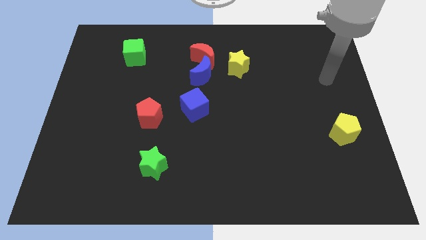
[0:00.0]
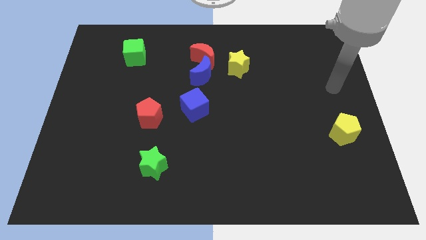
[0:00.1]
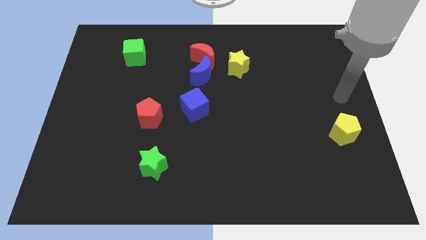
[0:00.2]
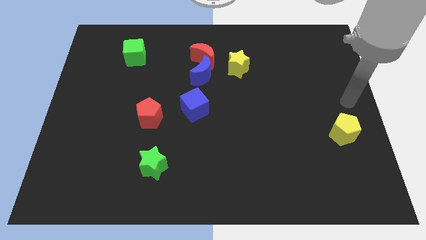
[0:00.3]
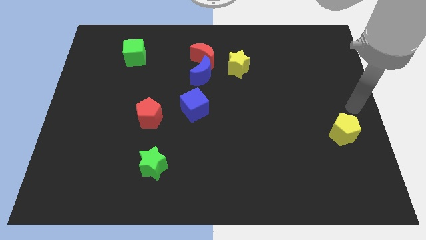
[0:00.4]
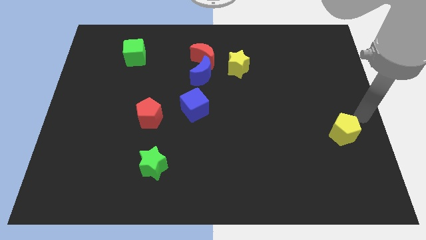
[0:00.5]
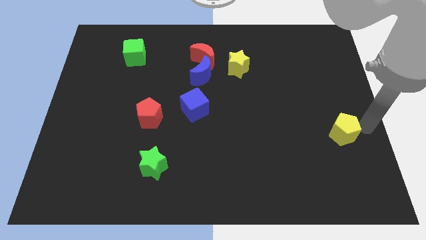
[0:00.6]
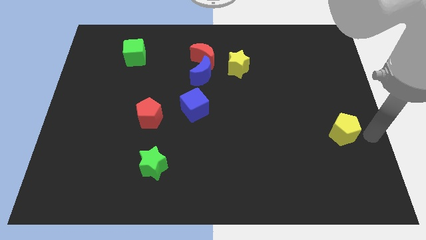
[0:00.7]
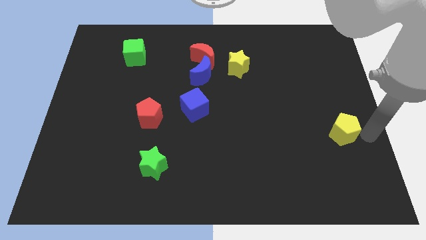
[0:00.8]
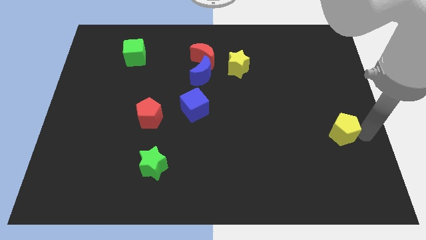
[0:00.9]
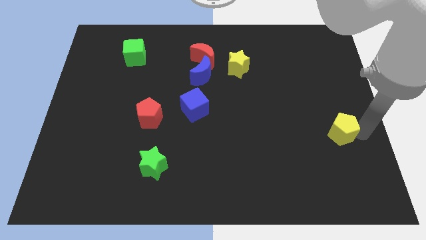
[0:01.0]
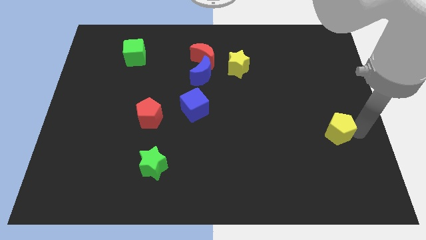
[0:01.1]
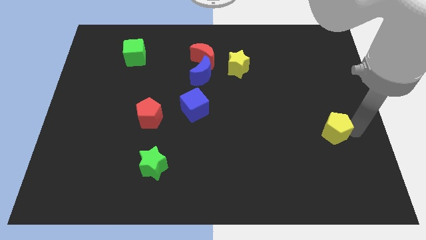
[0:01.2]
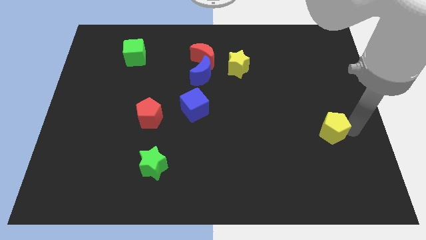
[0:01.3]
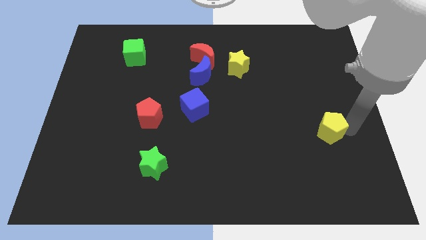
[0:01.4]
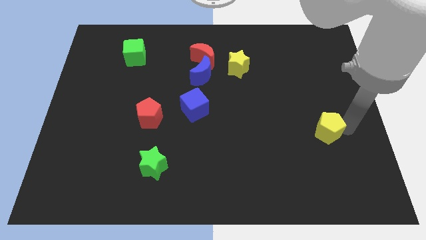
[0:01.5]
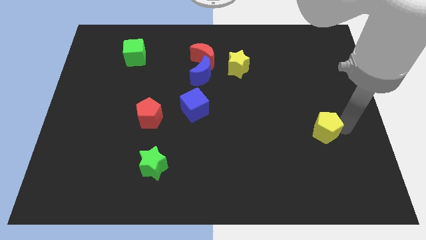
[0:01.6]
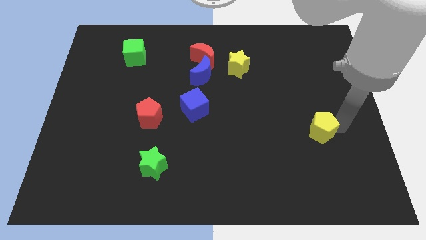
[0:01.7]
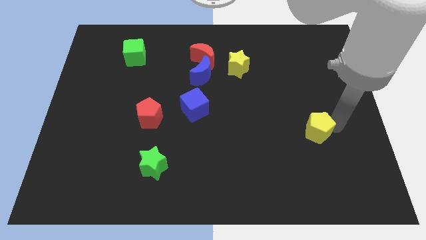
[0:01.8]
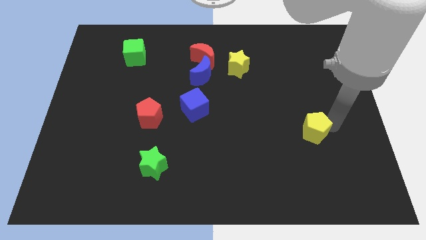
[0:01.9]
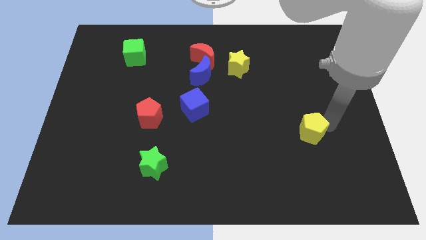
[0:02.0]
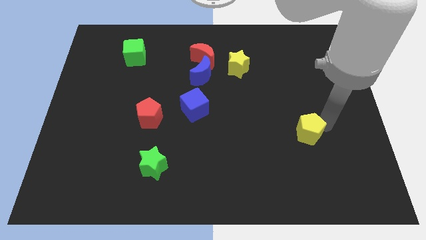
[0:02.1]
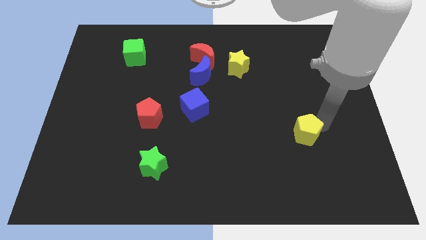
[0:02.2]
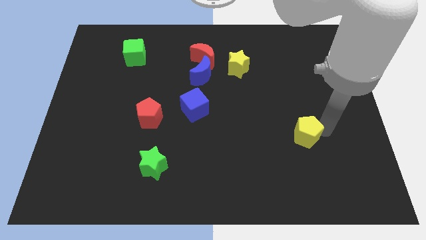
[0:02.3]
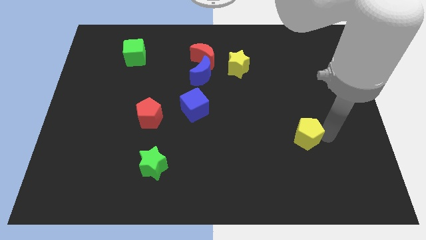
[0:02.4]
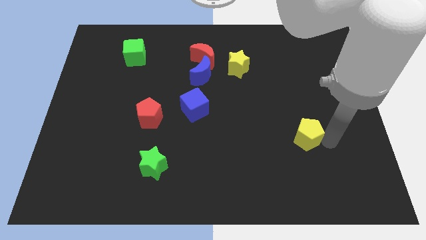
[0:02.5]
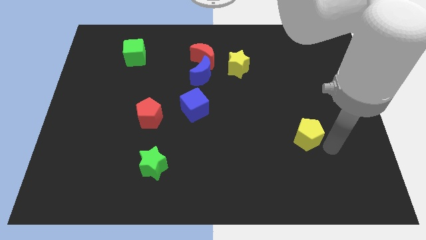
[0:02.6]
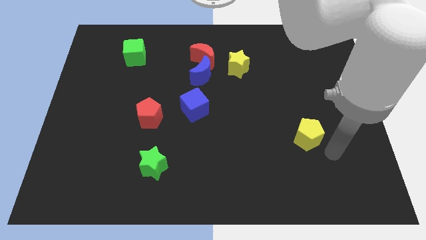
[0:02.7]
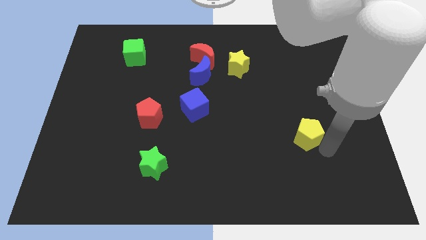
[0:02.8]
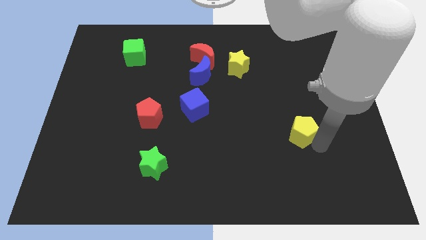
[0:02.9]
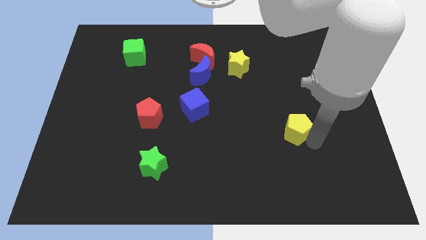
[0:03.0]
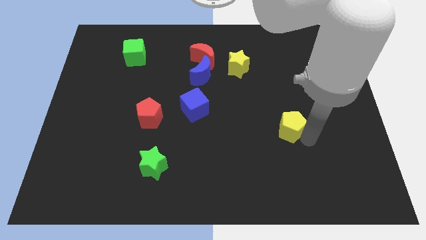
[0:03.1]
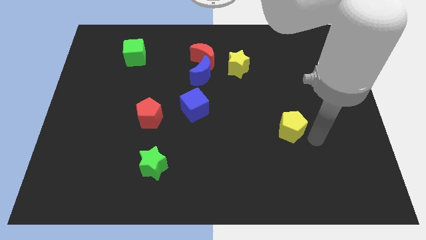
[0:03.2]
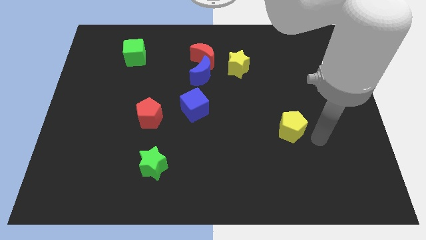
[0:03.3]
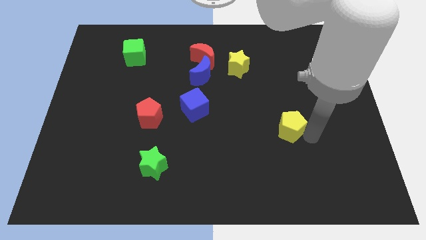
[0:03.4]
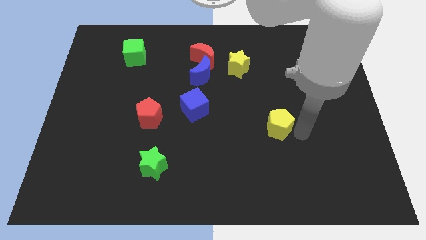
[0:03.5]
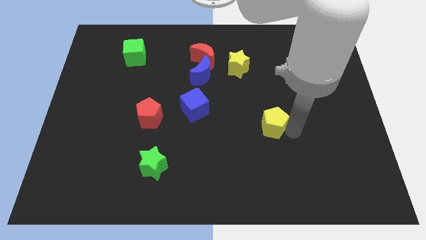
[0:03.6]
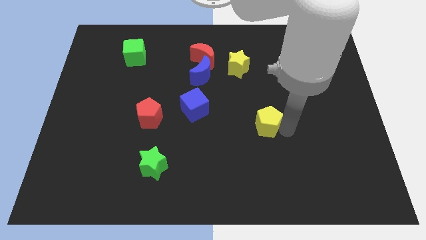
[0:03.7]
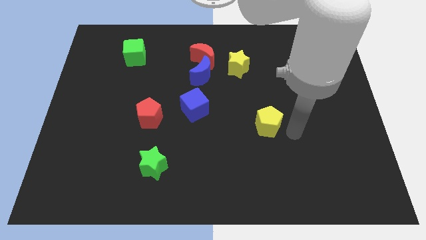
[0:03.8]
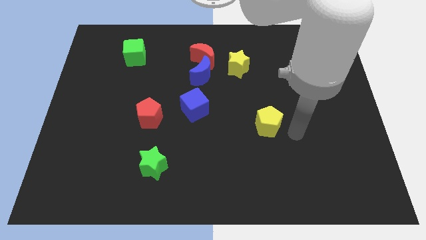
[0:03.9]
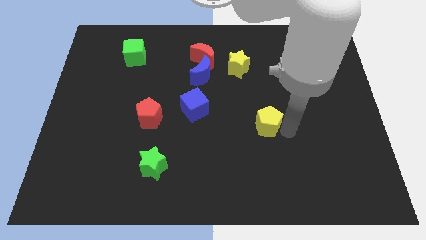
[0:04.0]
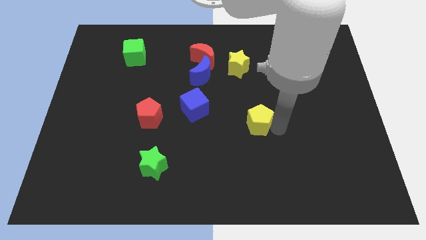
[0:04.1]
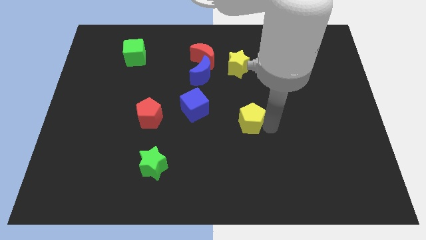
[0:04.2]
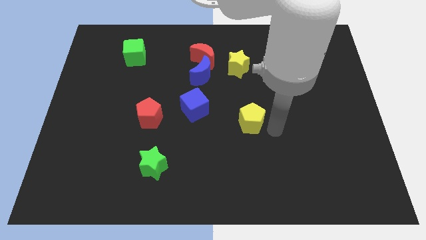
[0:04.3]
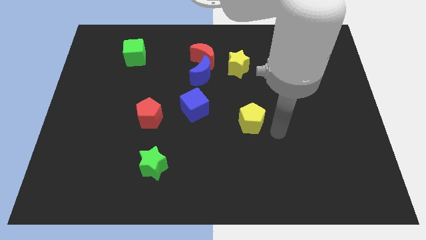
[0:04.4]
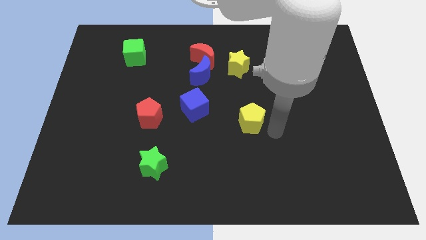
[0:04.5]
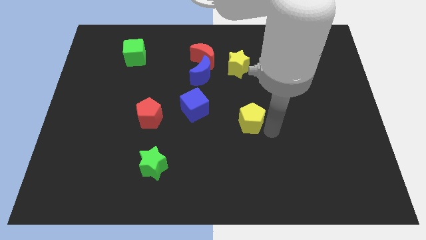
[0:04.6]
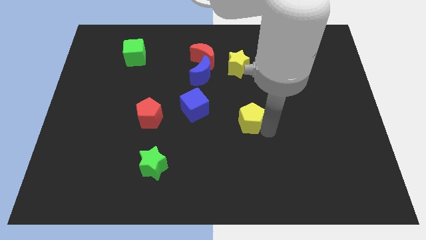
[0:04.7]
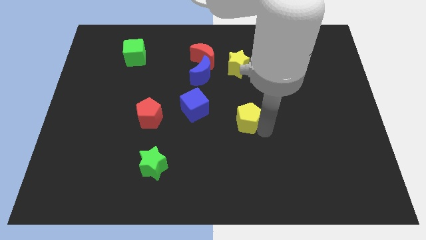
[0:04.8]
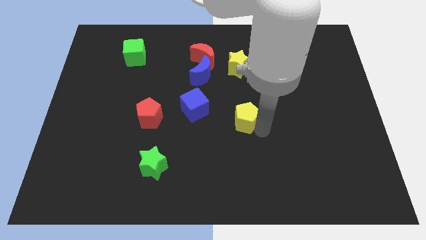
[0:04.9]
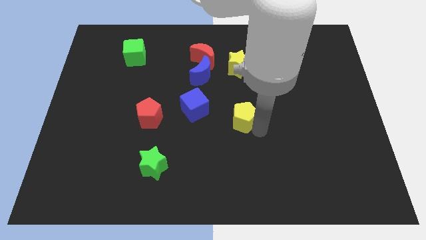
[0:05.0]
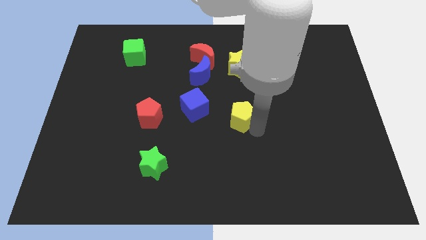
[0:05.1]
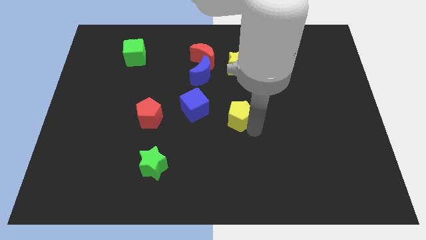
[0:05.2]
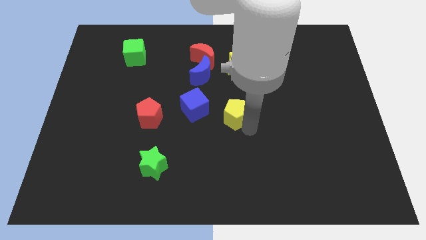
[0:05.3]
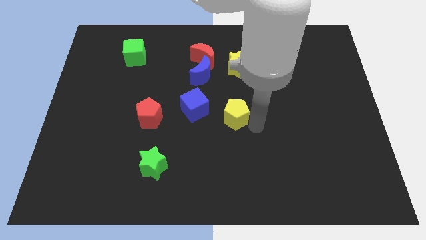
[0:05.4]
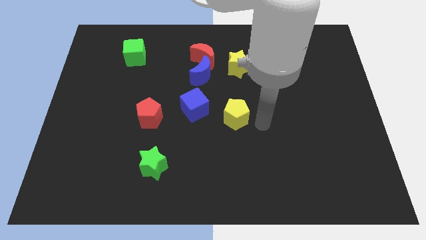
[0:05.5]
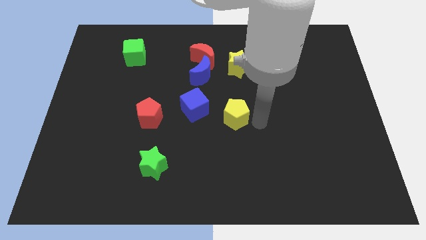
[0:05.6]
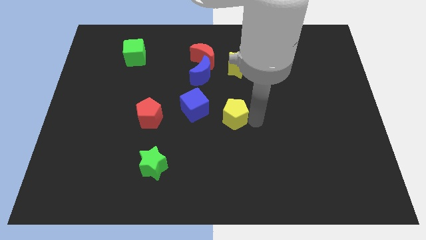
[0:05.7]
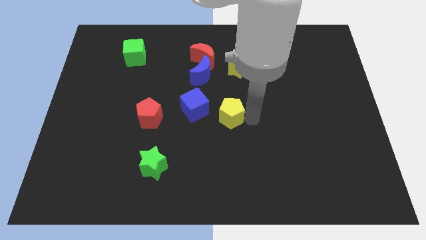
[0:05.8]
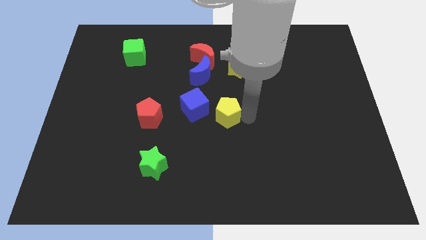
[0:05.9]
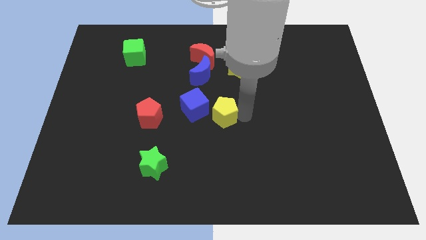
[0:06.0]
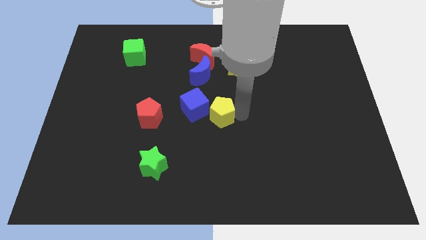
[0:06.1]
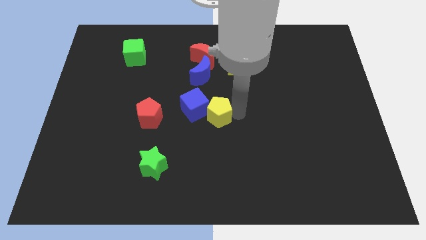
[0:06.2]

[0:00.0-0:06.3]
move the yellow pentagon to the blue cube

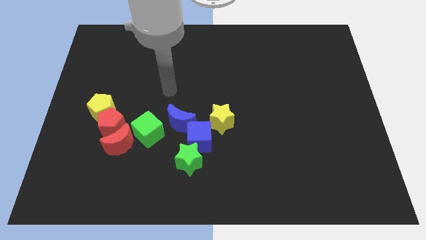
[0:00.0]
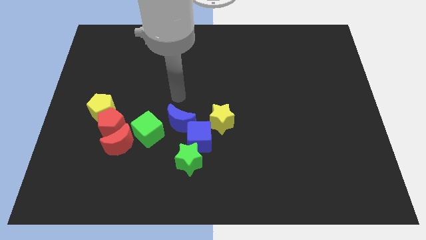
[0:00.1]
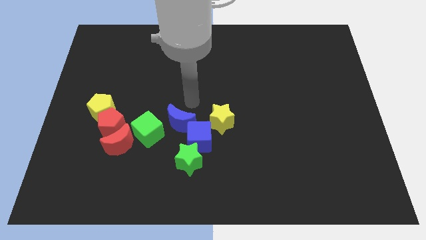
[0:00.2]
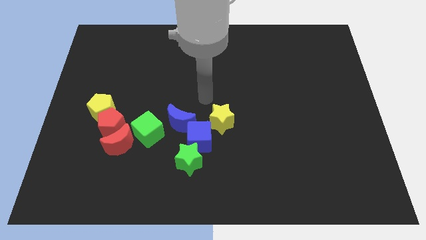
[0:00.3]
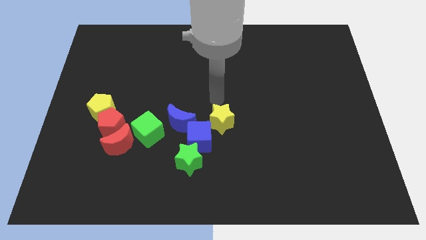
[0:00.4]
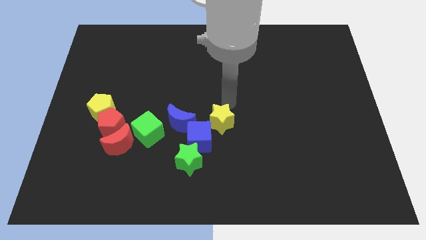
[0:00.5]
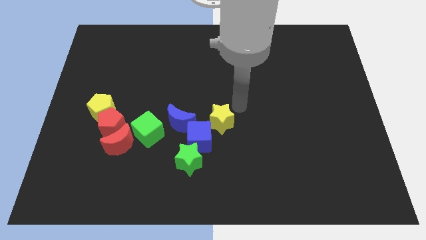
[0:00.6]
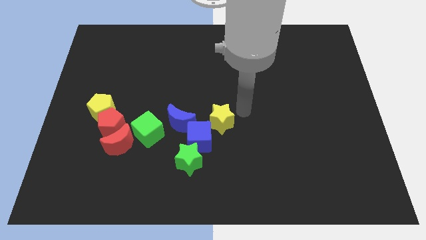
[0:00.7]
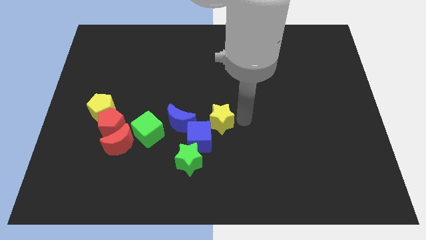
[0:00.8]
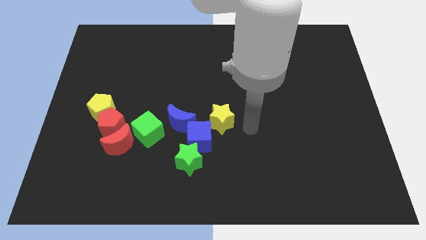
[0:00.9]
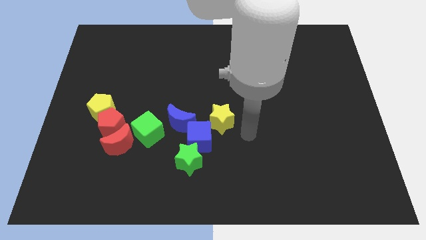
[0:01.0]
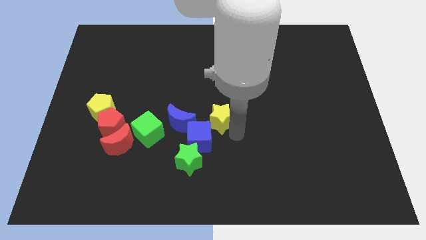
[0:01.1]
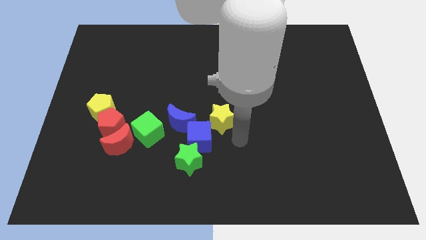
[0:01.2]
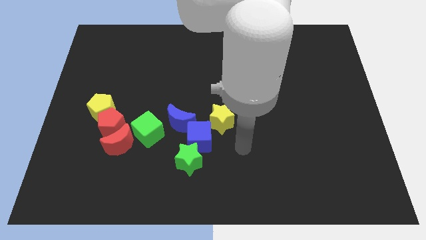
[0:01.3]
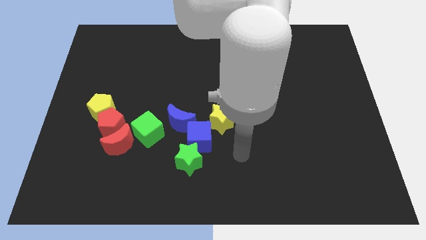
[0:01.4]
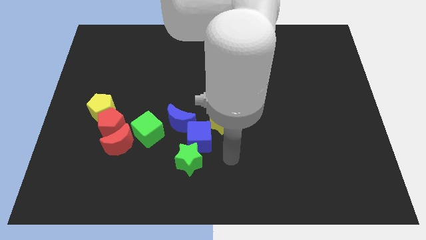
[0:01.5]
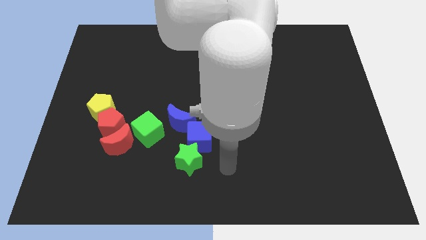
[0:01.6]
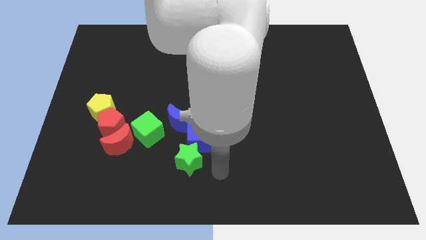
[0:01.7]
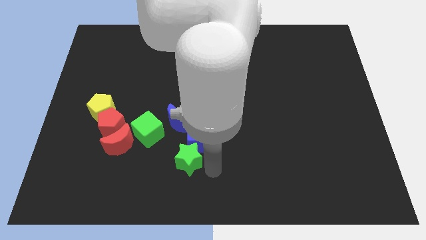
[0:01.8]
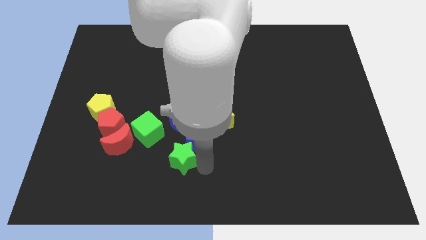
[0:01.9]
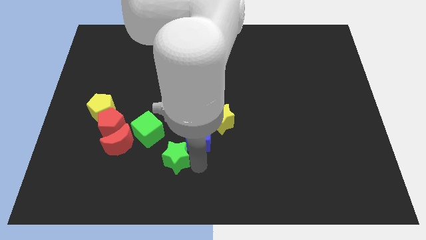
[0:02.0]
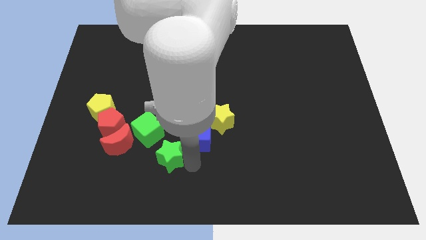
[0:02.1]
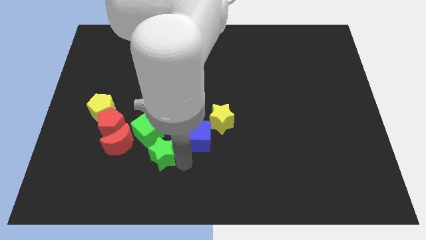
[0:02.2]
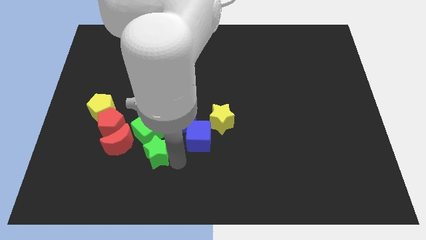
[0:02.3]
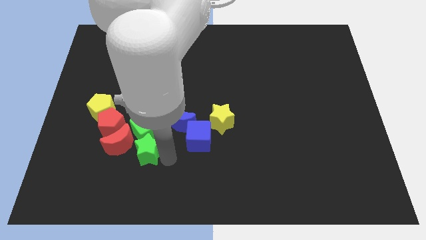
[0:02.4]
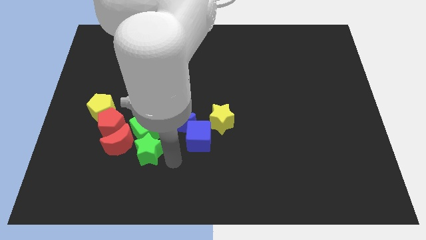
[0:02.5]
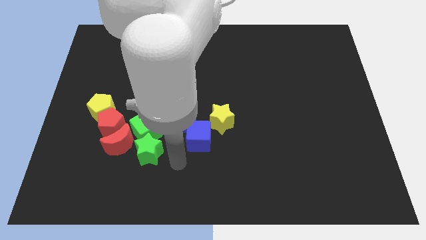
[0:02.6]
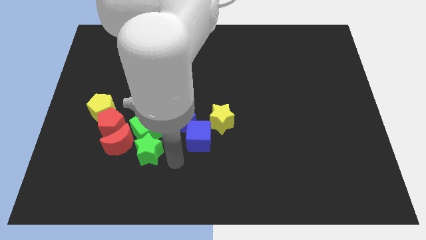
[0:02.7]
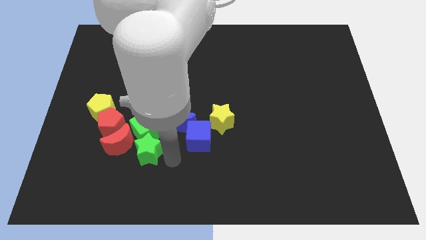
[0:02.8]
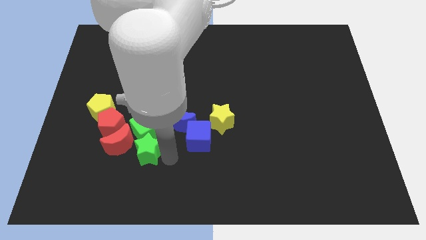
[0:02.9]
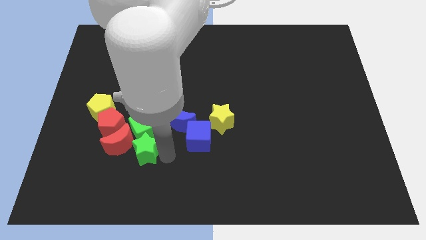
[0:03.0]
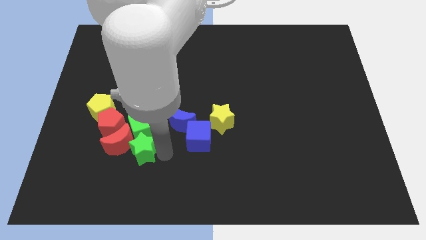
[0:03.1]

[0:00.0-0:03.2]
move the green star next to the red moon
